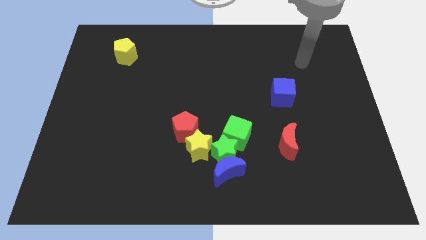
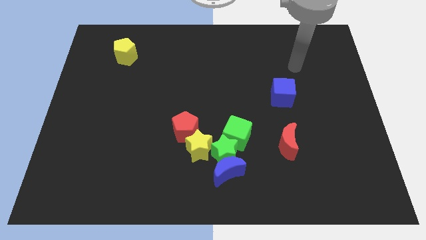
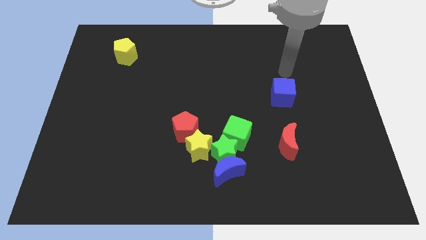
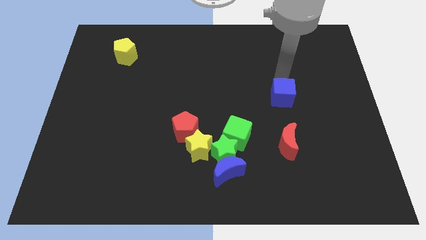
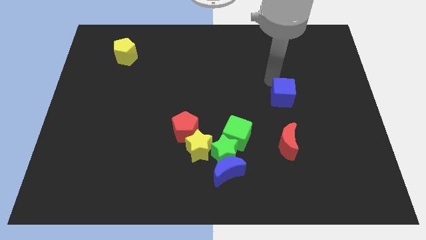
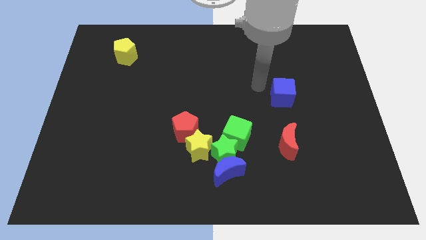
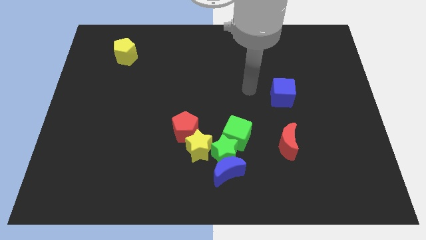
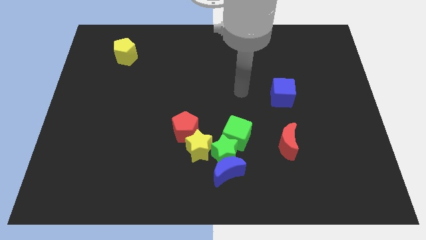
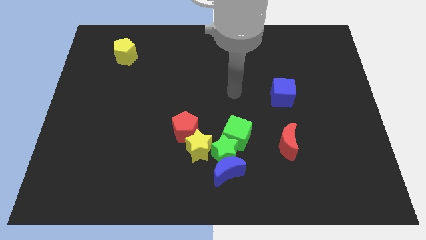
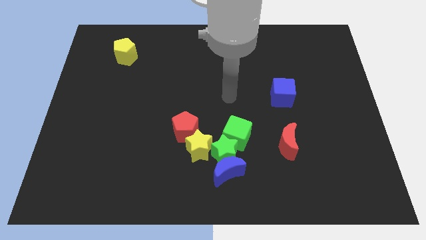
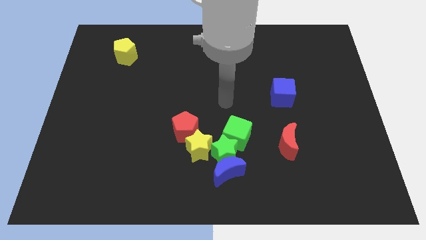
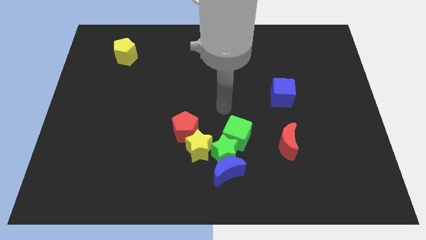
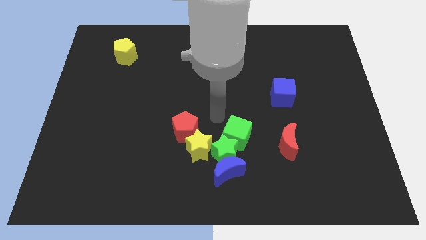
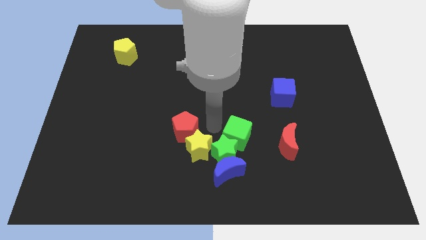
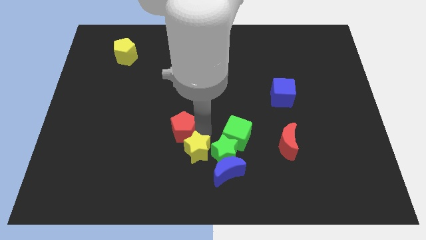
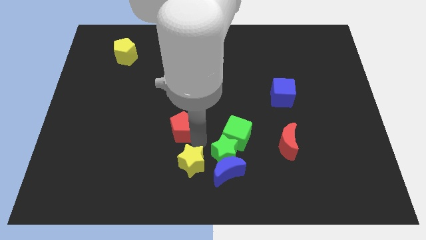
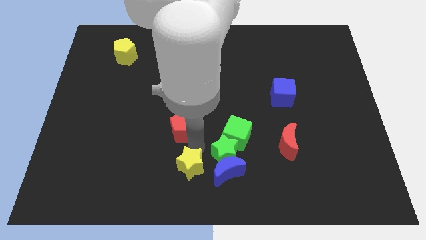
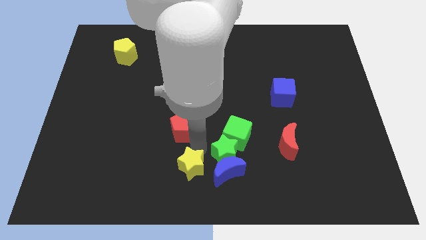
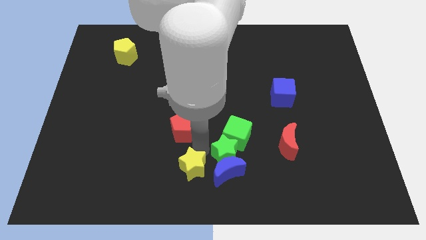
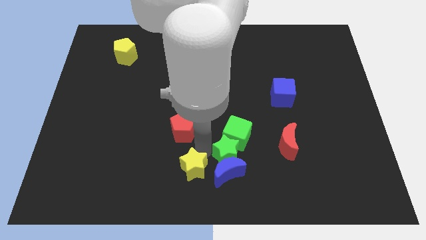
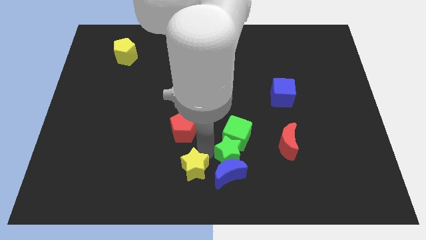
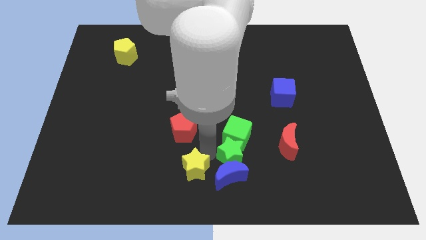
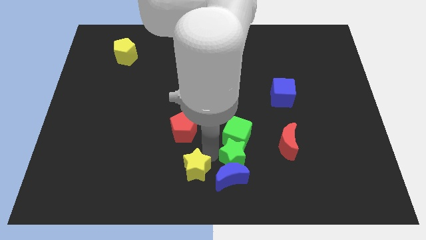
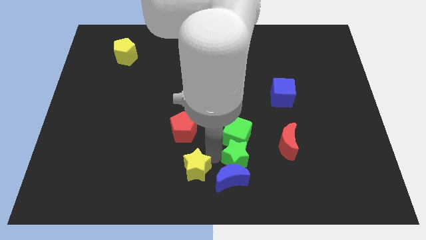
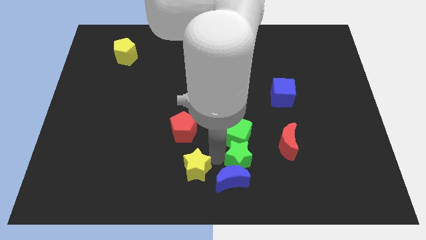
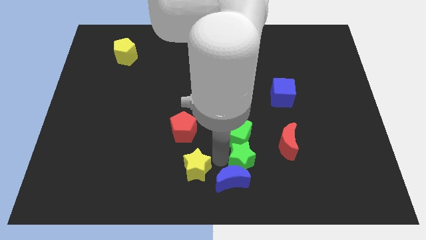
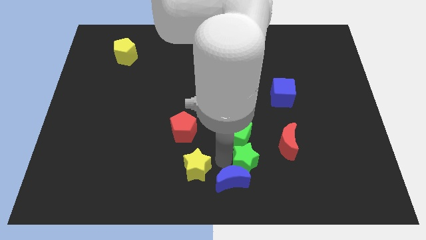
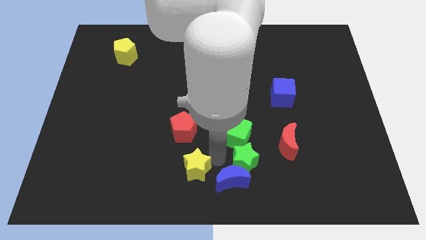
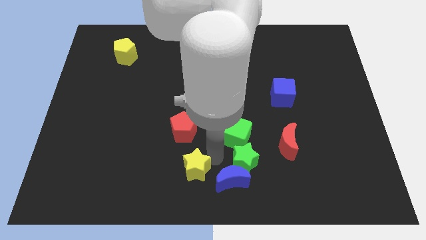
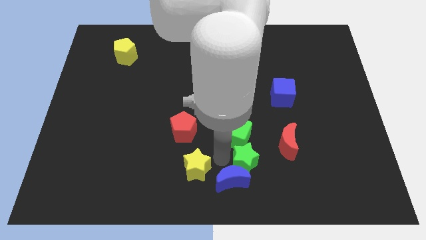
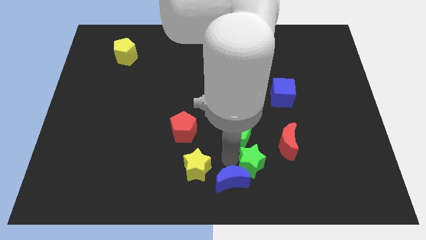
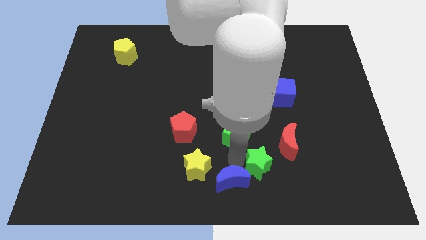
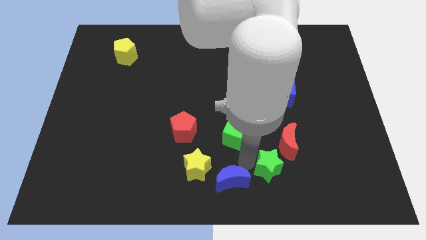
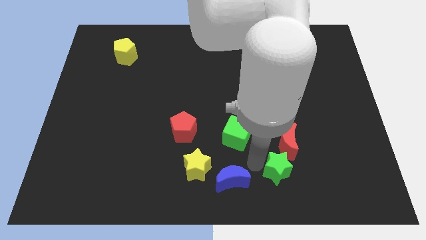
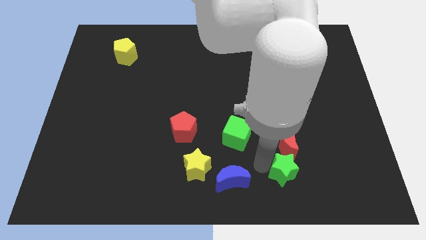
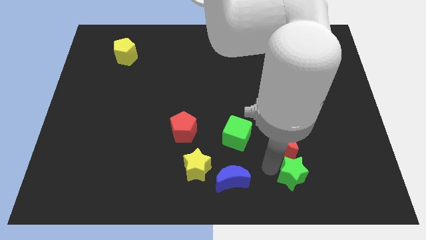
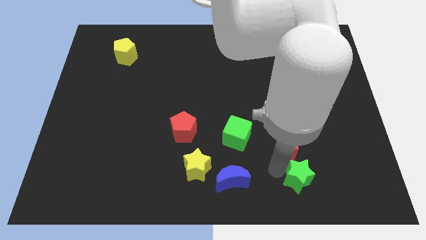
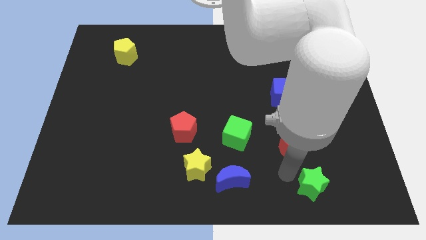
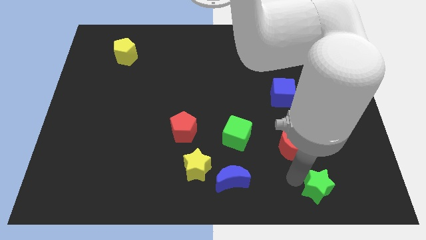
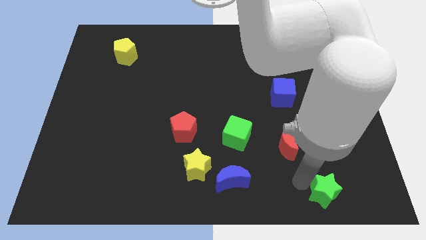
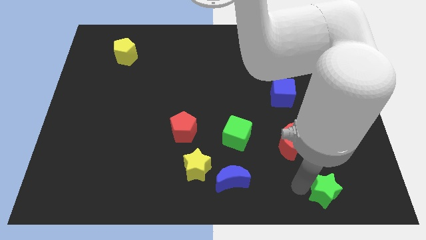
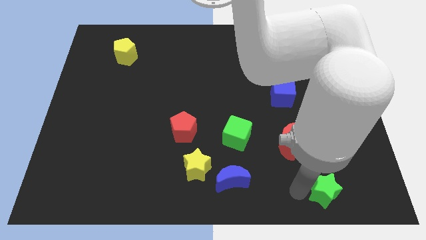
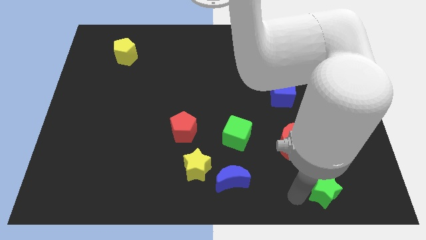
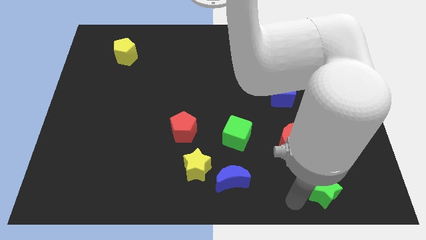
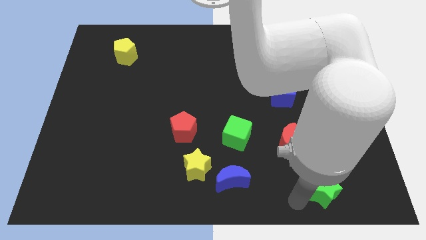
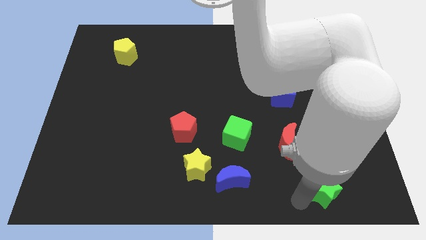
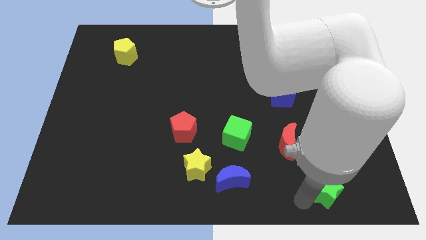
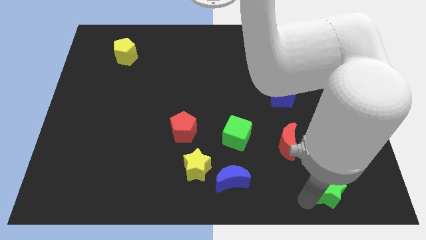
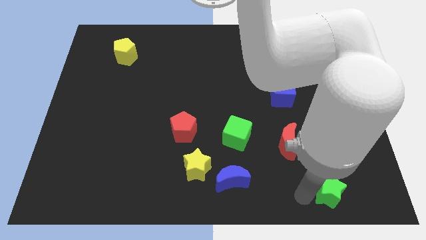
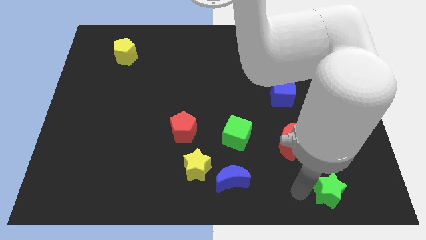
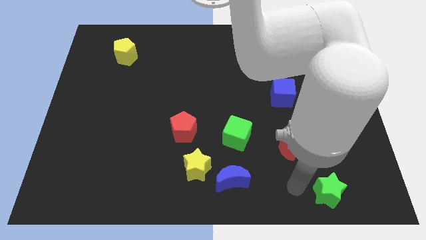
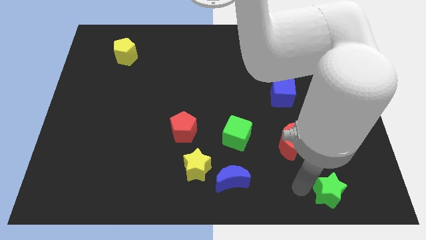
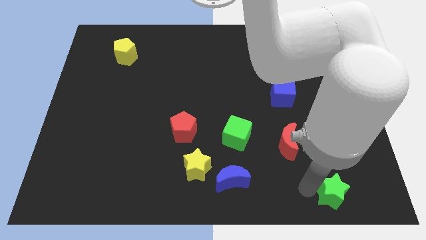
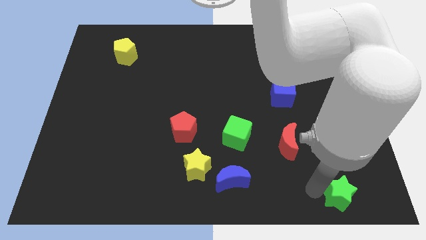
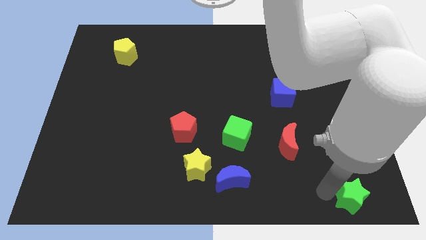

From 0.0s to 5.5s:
slide the green star to the bottom right

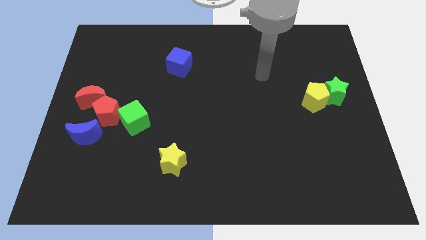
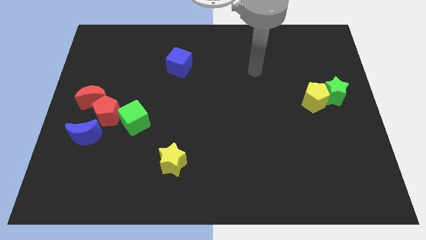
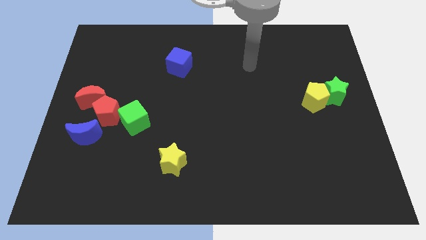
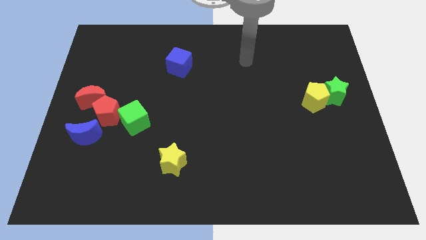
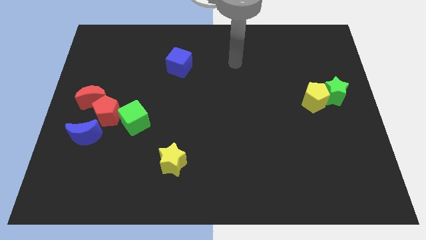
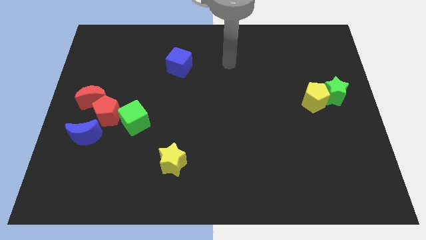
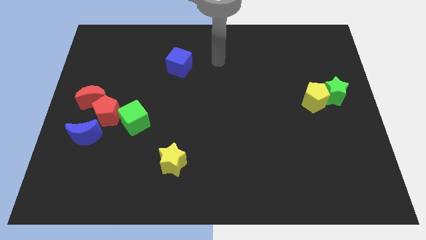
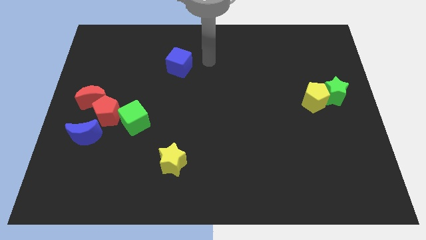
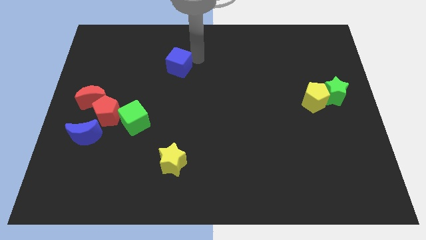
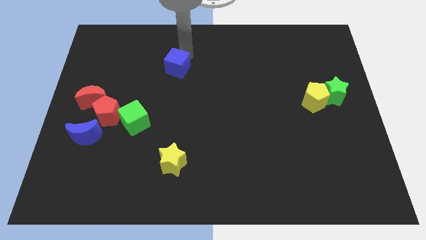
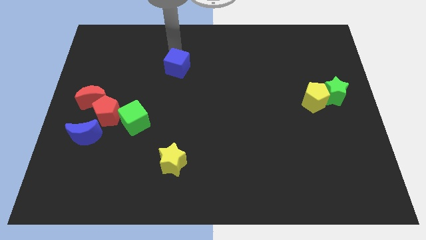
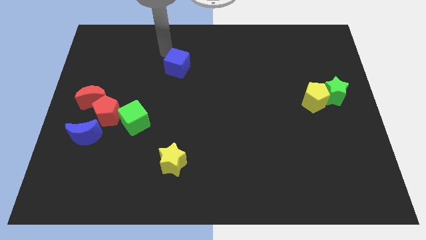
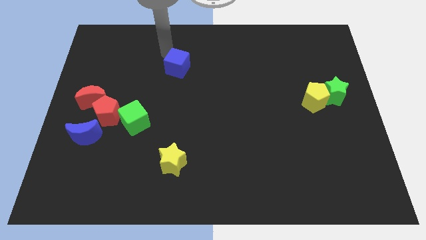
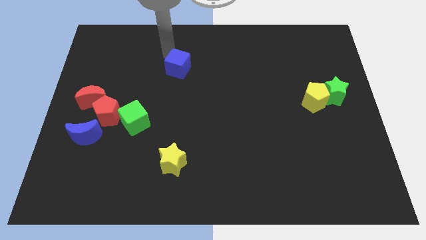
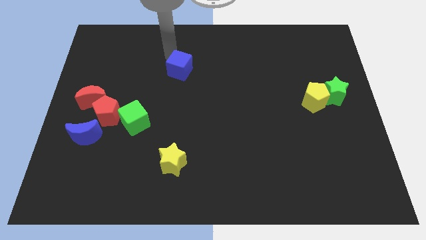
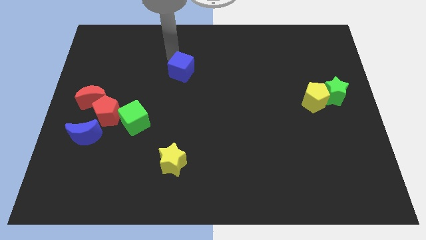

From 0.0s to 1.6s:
slide the blue cube to the middle of the board
